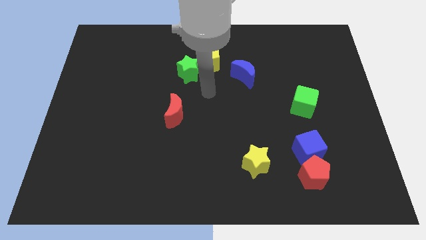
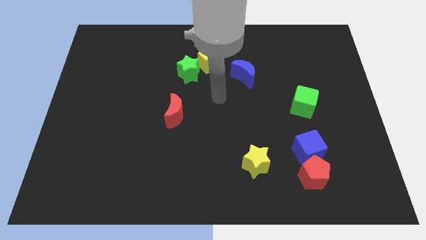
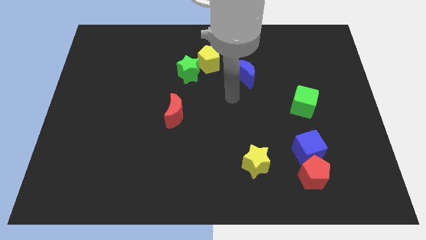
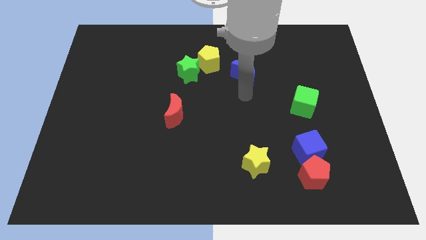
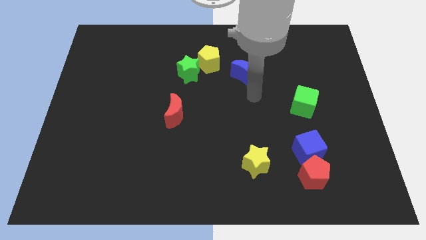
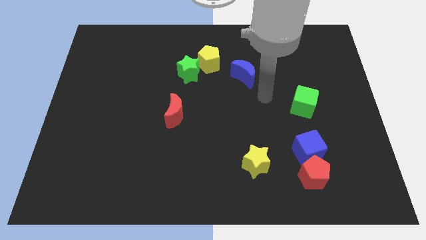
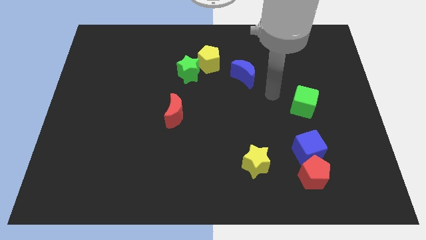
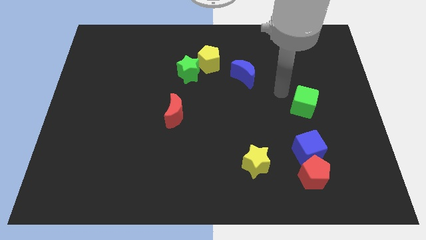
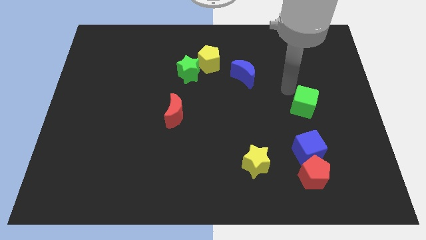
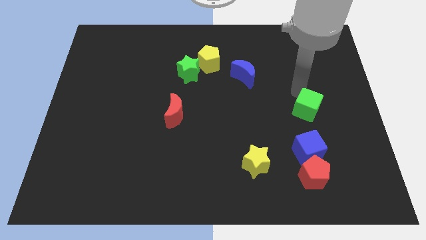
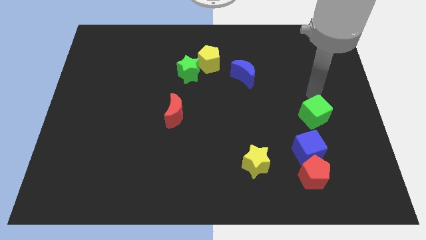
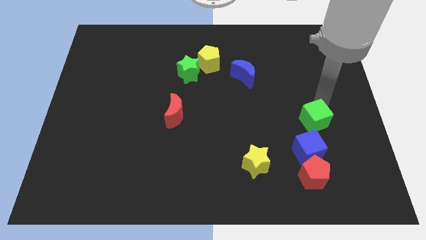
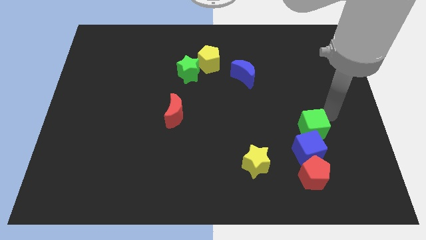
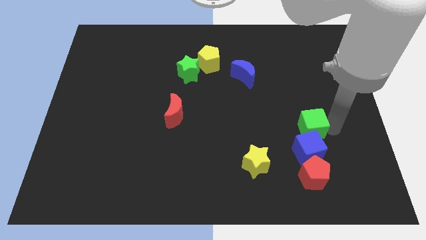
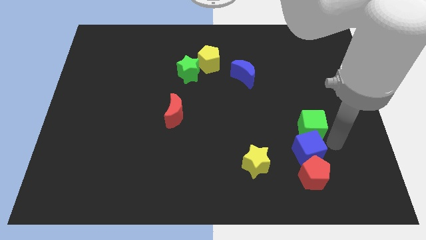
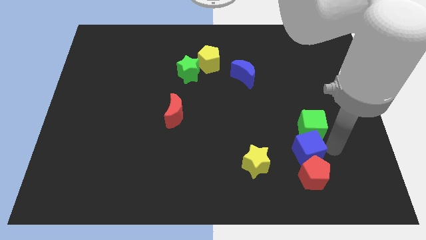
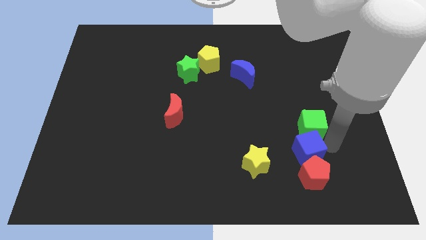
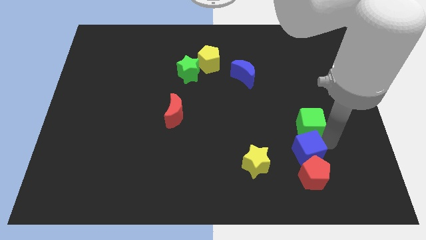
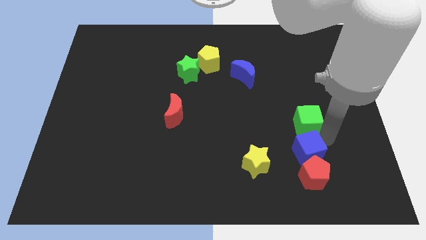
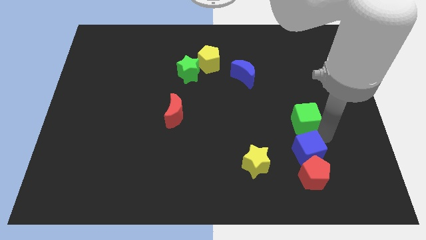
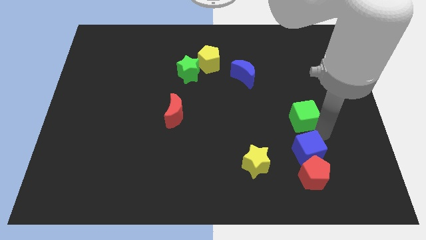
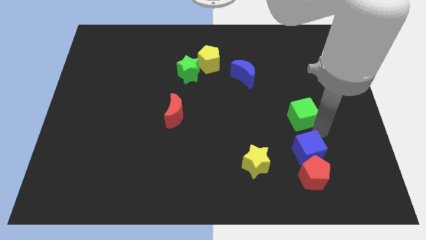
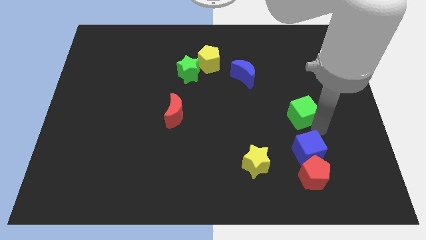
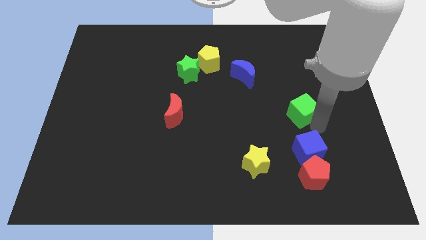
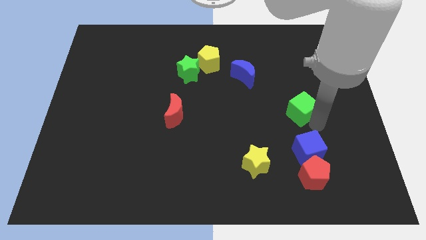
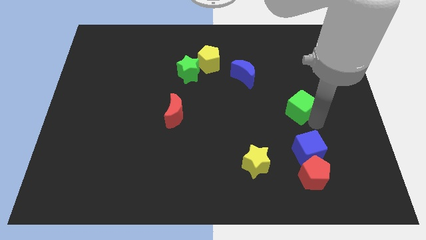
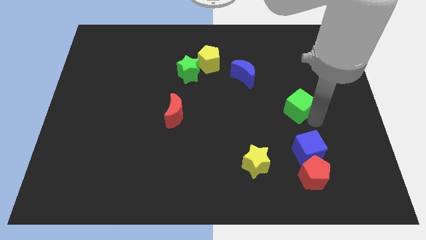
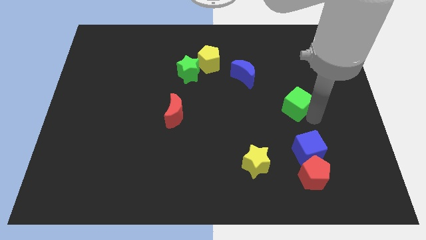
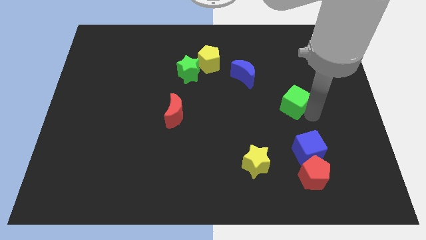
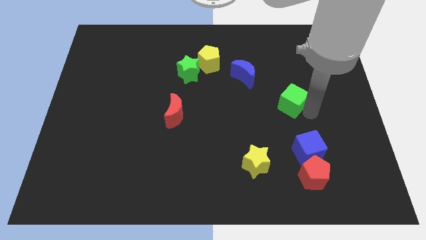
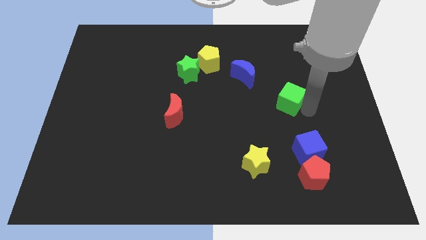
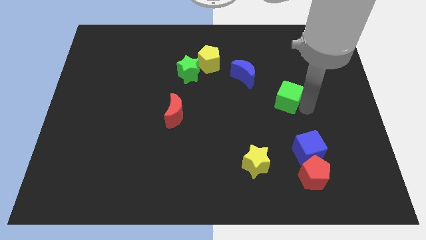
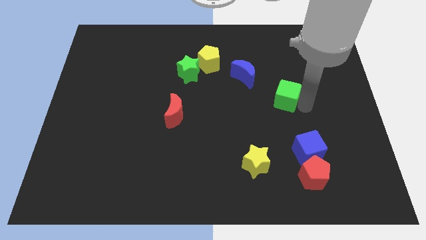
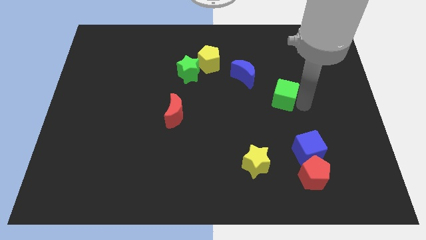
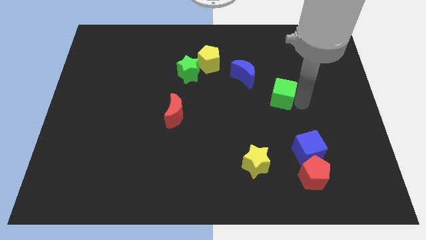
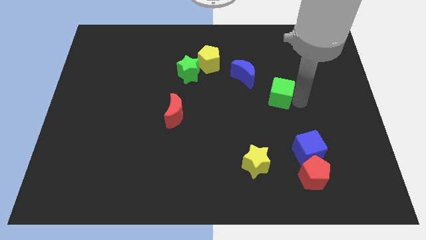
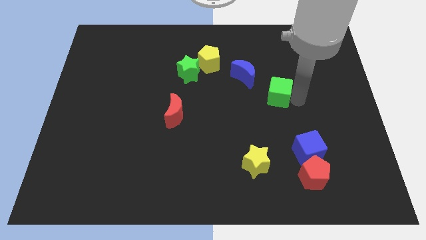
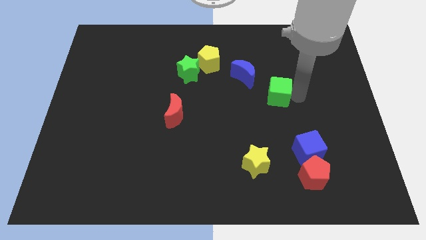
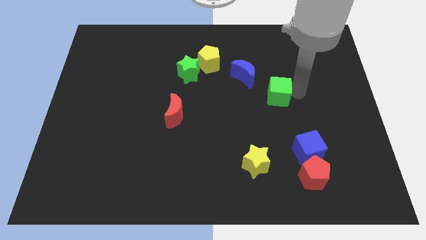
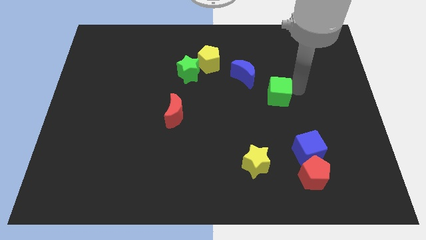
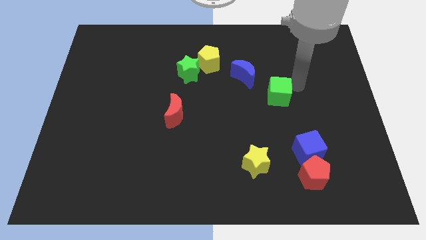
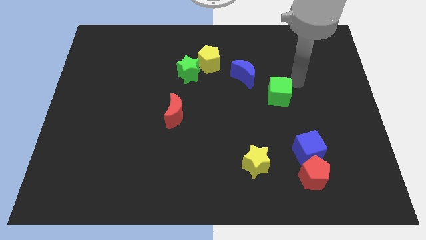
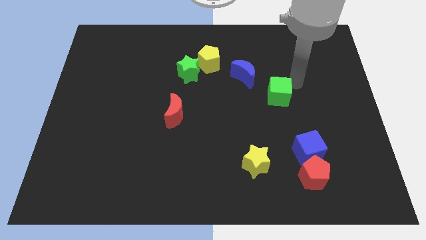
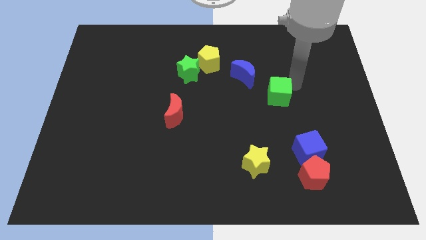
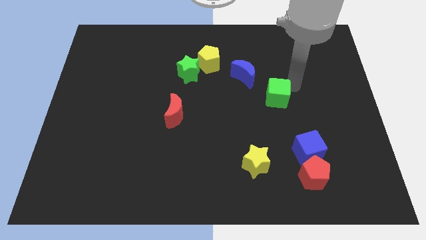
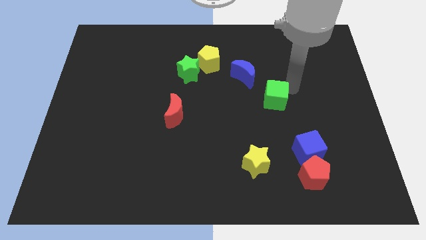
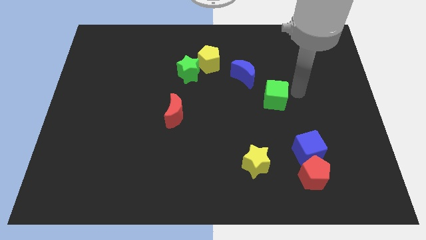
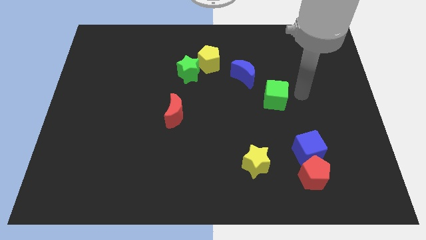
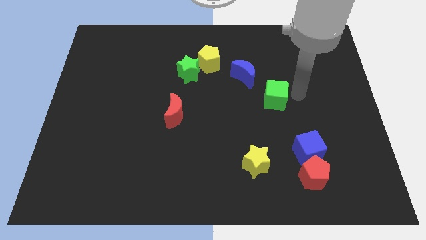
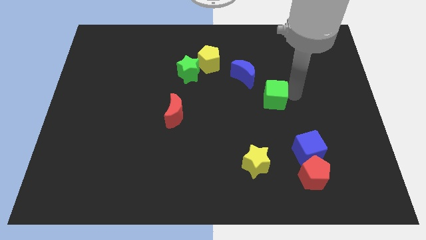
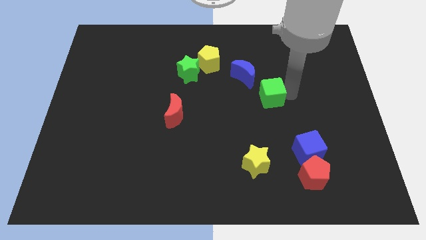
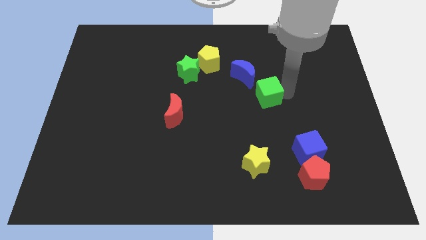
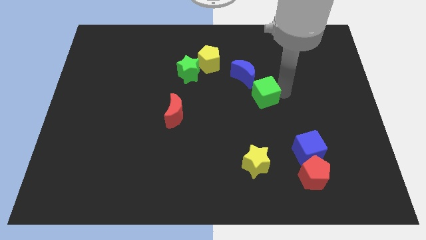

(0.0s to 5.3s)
move the green cube to the center
